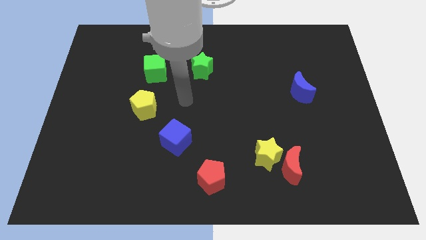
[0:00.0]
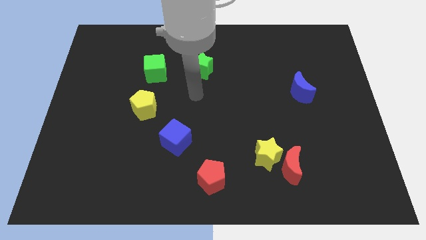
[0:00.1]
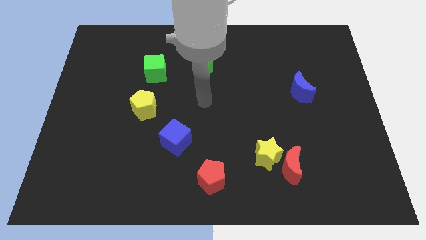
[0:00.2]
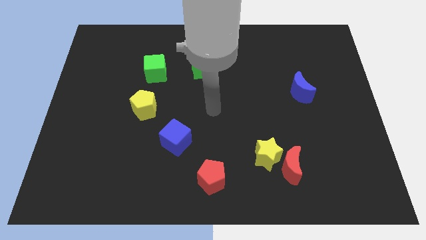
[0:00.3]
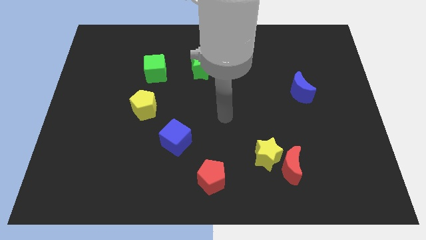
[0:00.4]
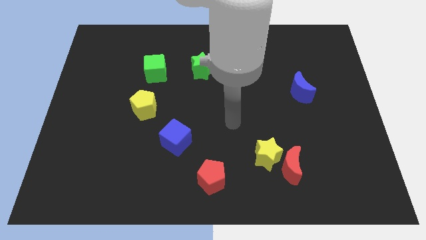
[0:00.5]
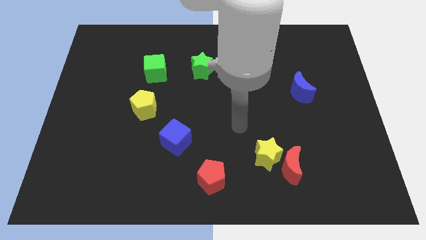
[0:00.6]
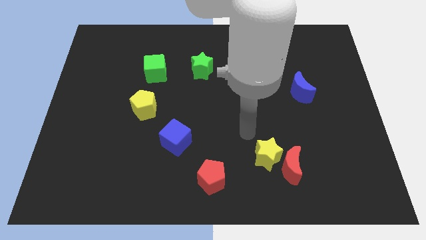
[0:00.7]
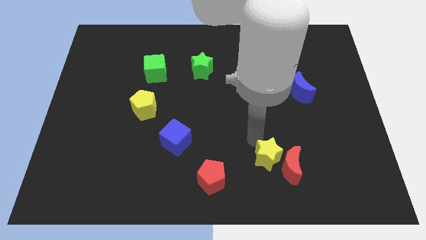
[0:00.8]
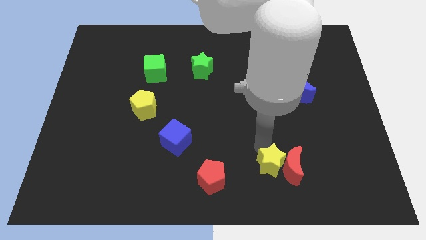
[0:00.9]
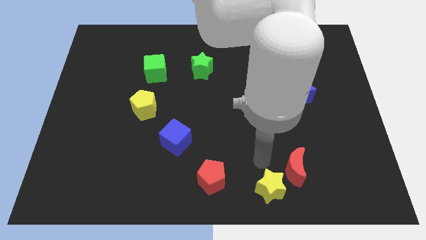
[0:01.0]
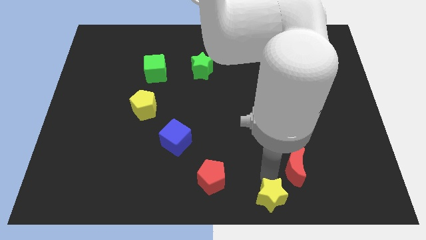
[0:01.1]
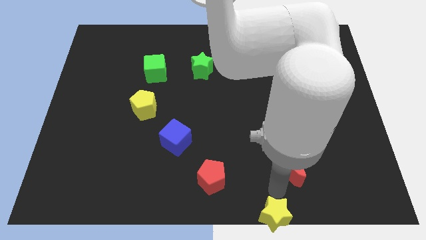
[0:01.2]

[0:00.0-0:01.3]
pull the red moon apart from the yellow star

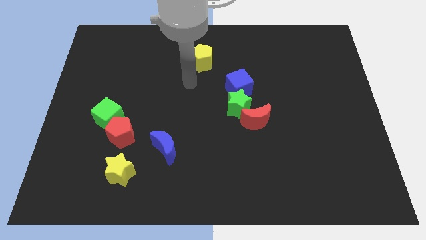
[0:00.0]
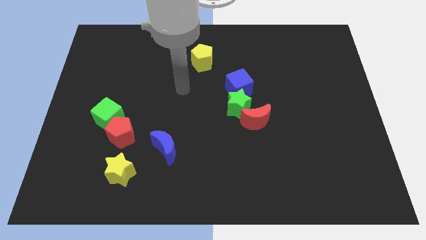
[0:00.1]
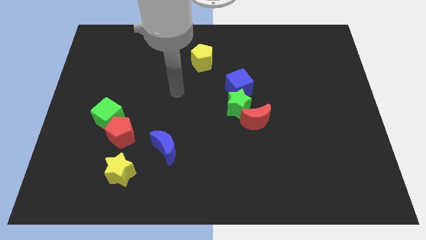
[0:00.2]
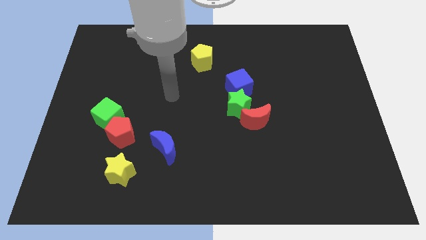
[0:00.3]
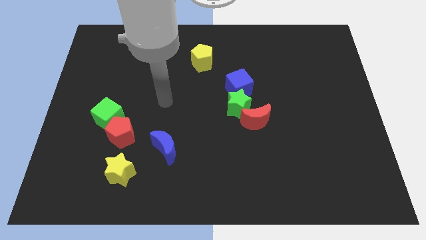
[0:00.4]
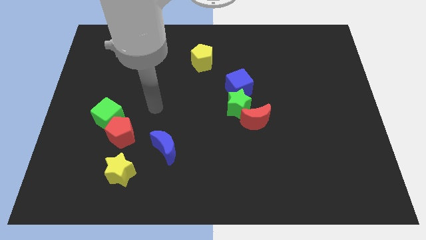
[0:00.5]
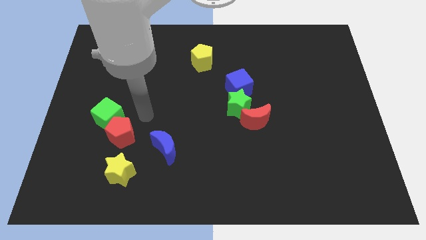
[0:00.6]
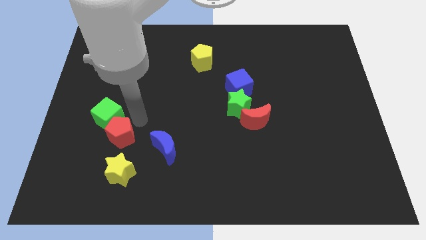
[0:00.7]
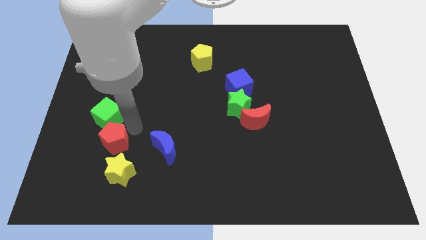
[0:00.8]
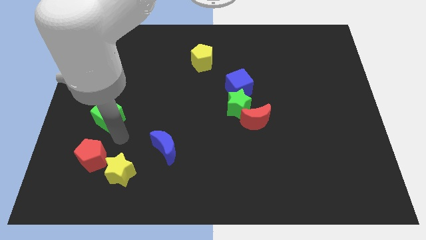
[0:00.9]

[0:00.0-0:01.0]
pull the green cube apart from the red pentagon

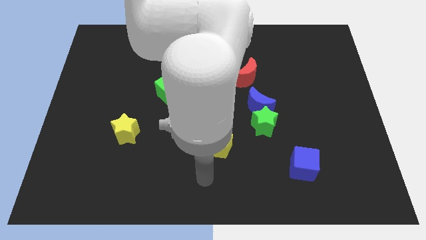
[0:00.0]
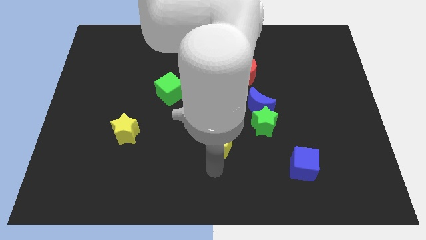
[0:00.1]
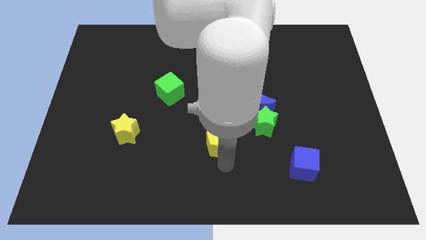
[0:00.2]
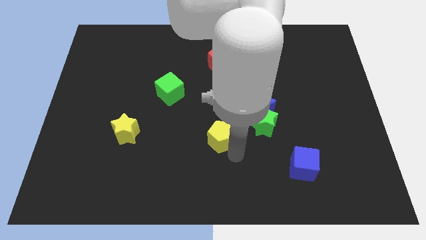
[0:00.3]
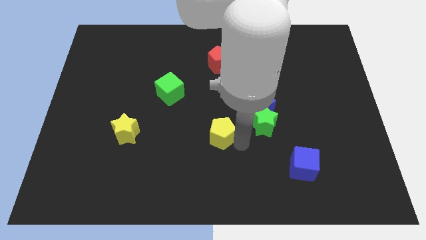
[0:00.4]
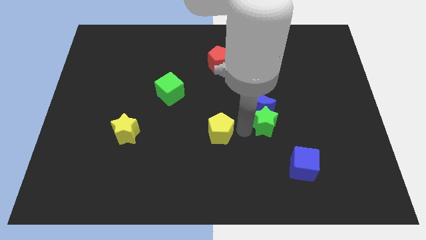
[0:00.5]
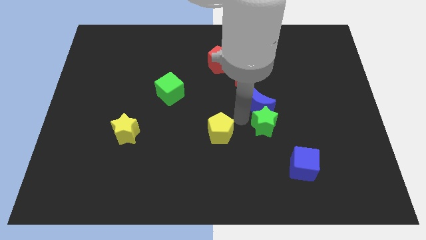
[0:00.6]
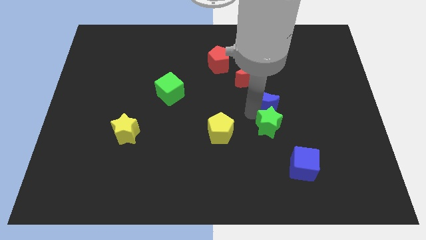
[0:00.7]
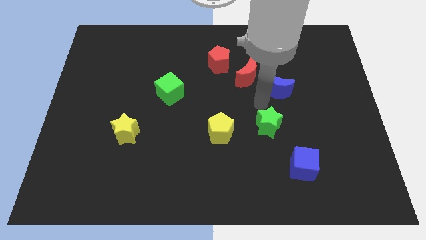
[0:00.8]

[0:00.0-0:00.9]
separate the green star from the blue moon

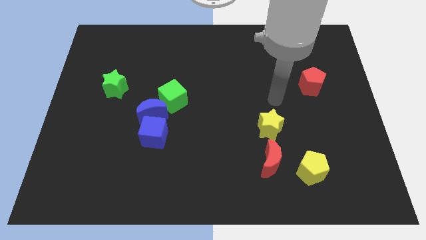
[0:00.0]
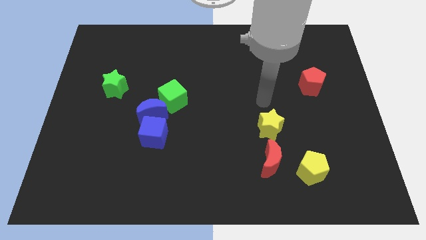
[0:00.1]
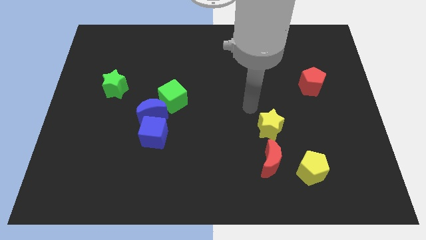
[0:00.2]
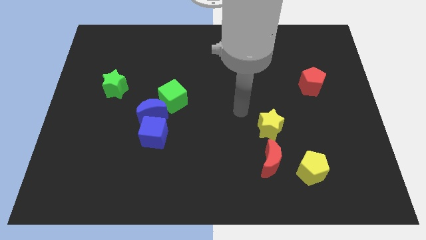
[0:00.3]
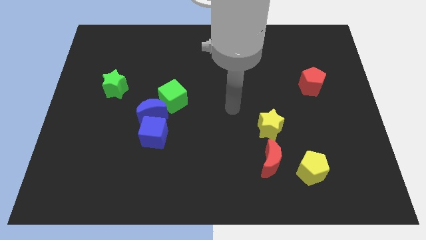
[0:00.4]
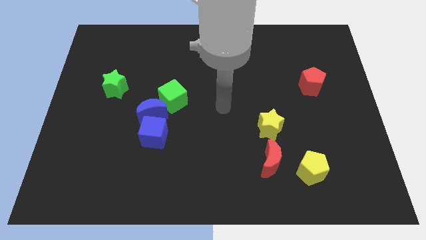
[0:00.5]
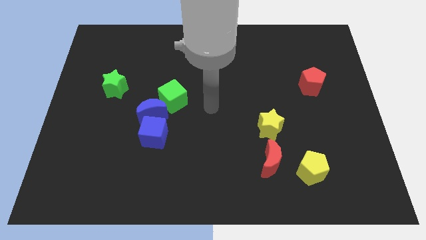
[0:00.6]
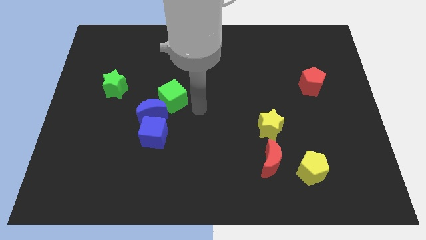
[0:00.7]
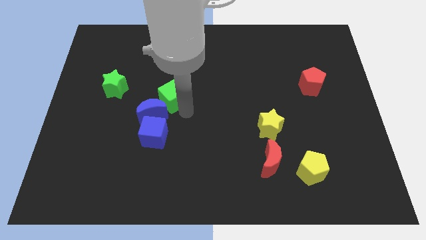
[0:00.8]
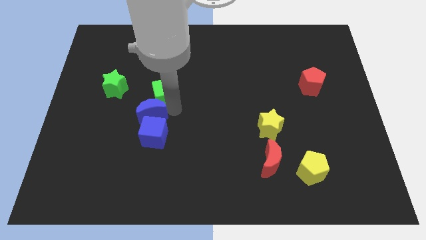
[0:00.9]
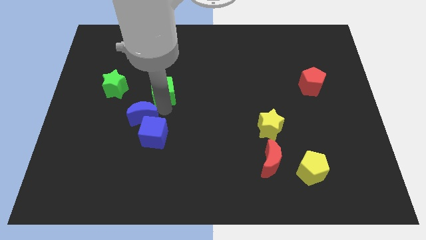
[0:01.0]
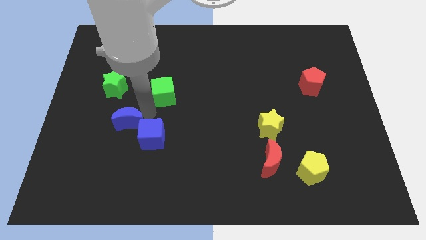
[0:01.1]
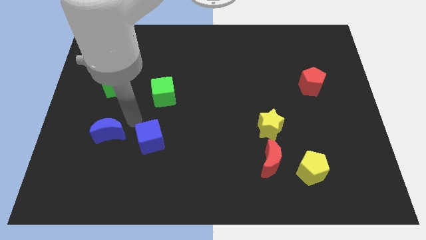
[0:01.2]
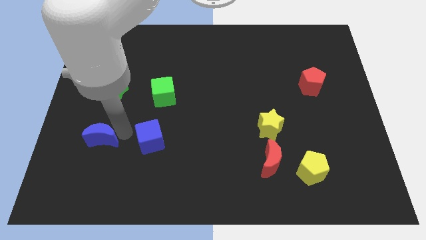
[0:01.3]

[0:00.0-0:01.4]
separate the blue cube from the blue moon

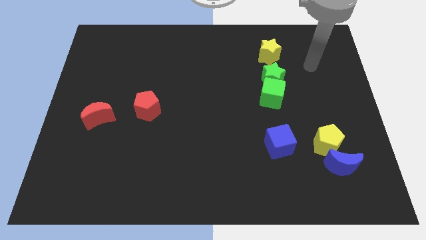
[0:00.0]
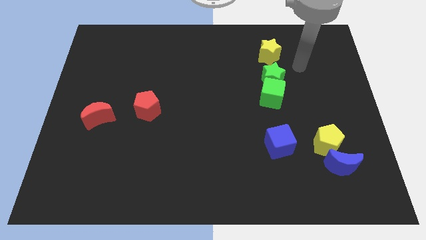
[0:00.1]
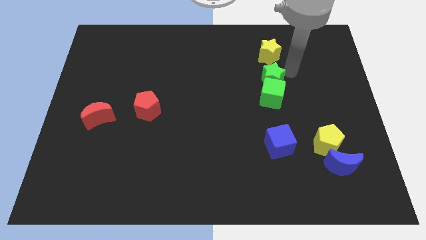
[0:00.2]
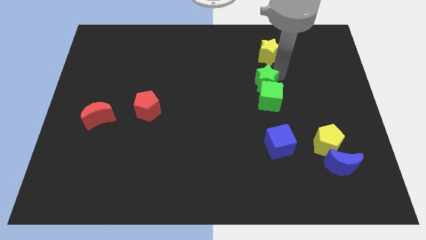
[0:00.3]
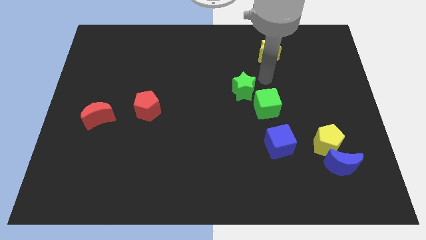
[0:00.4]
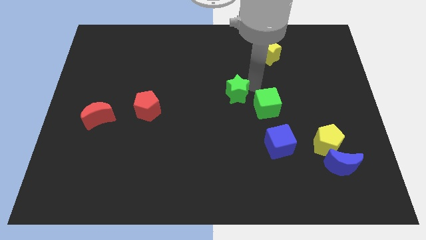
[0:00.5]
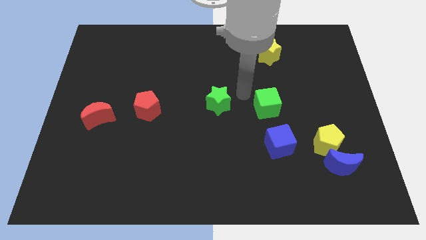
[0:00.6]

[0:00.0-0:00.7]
separate the green cube from the green star

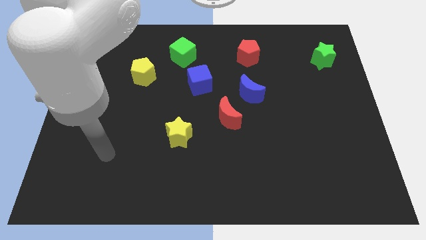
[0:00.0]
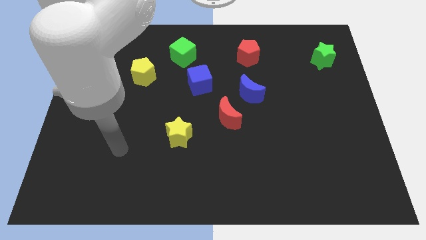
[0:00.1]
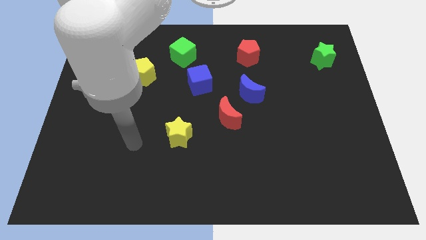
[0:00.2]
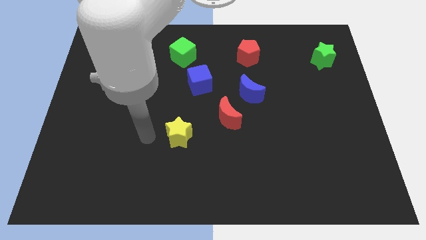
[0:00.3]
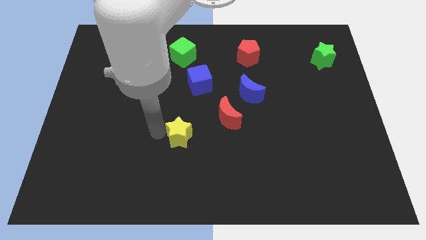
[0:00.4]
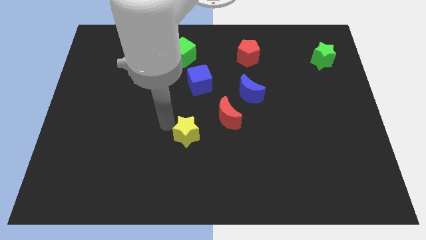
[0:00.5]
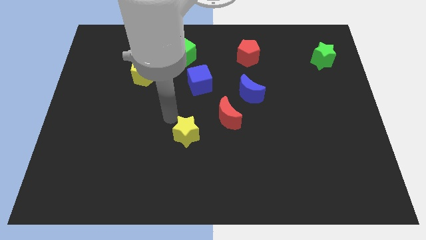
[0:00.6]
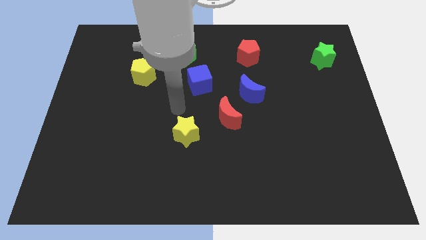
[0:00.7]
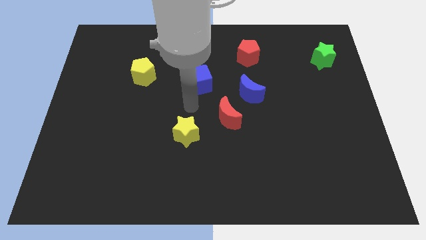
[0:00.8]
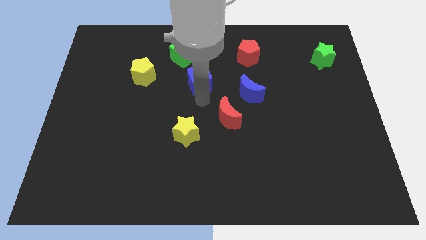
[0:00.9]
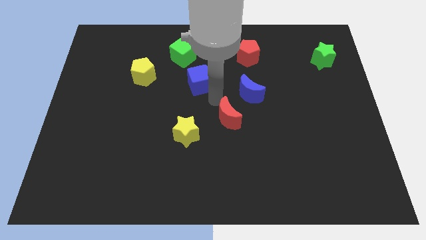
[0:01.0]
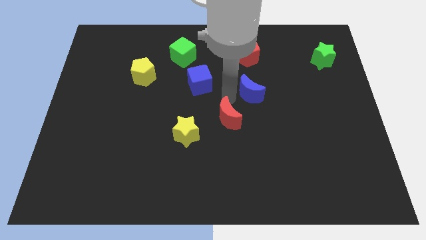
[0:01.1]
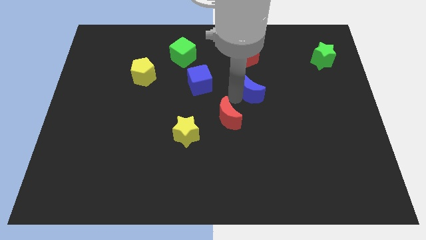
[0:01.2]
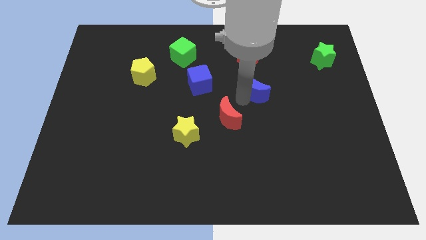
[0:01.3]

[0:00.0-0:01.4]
separate the red moon from the blue moon

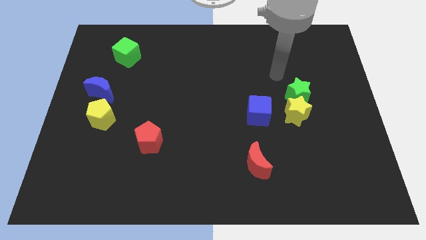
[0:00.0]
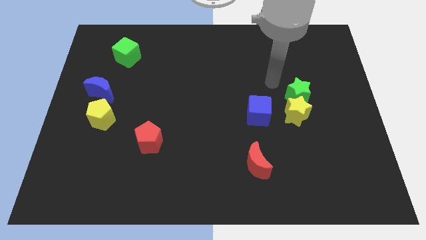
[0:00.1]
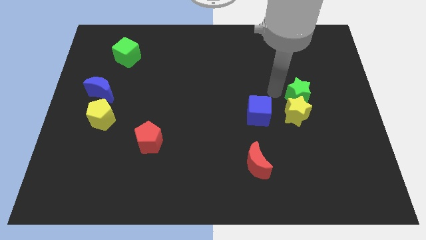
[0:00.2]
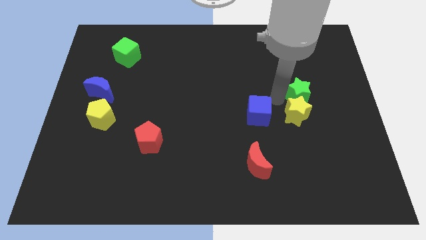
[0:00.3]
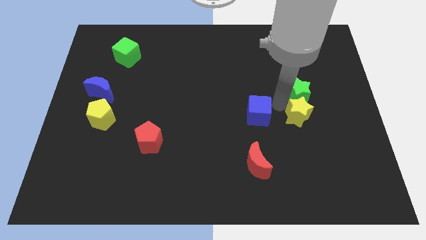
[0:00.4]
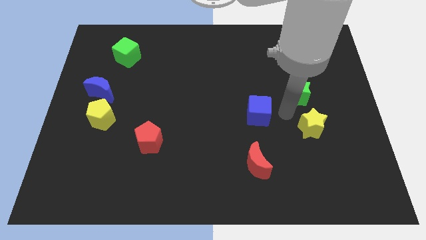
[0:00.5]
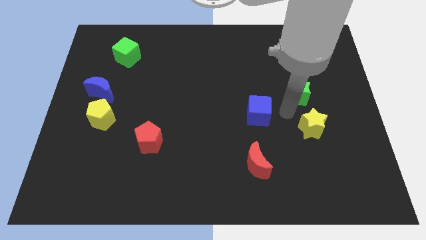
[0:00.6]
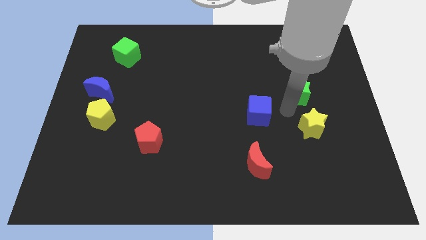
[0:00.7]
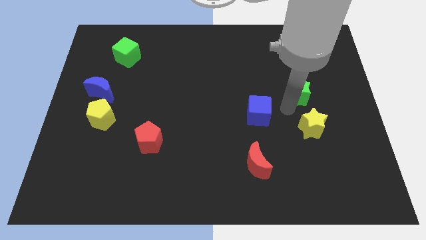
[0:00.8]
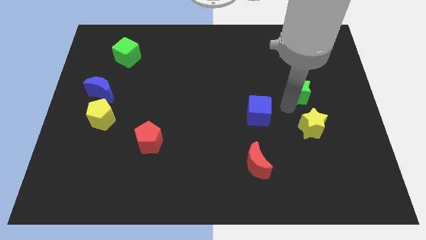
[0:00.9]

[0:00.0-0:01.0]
move the green star away from the yellow star

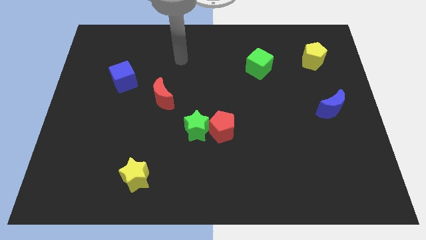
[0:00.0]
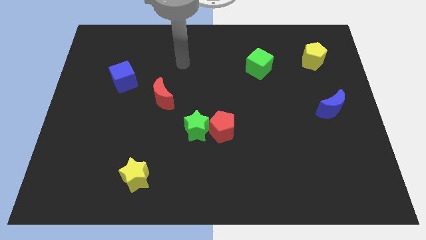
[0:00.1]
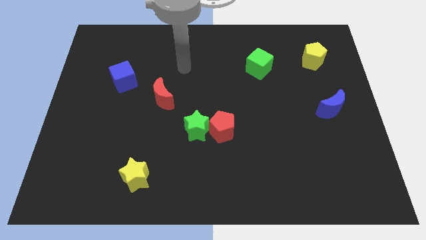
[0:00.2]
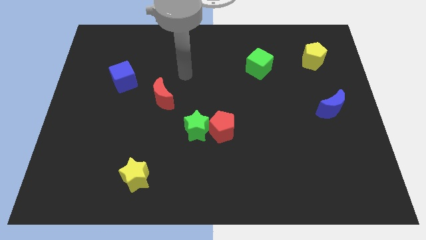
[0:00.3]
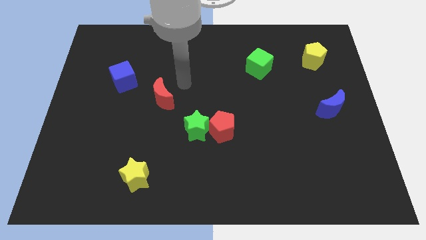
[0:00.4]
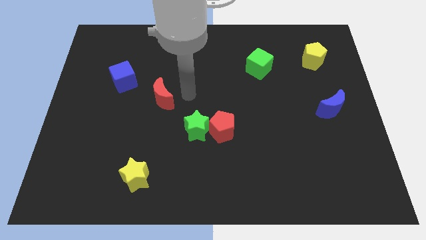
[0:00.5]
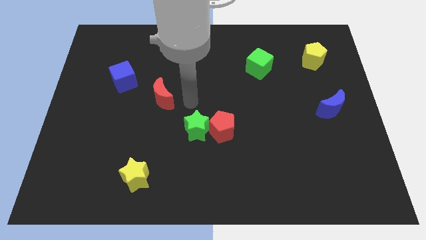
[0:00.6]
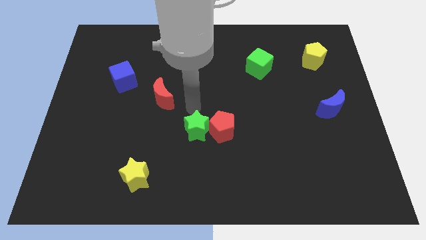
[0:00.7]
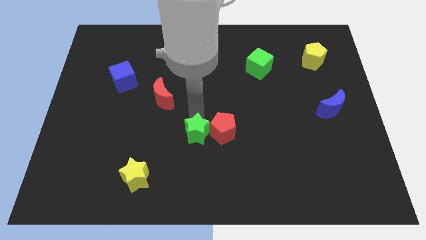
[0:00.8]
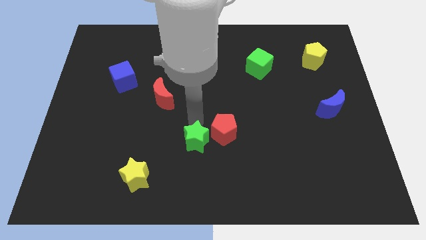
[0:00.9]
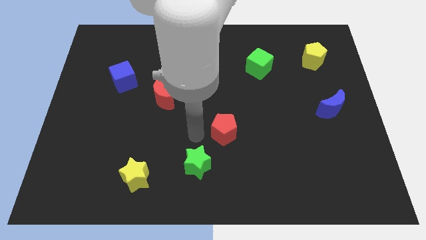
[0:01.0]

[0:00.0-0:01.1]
pull the red pentagon apart from the green star

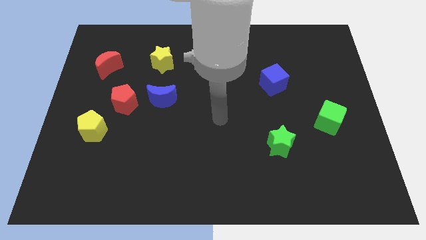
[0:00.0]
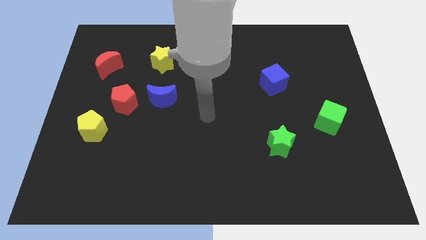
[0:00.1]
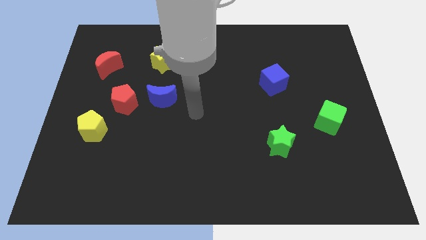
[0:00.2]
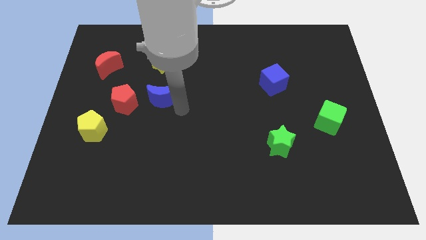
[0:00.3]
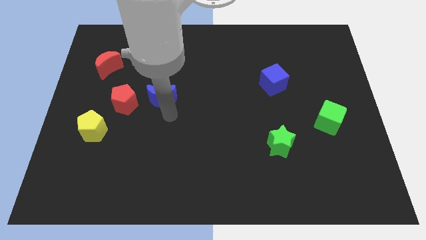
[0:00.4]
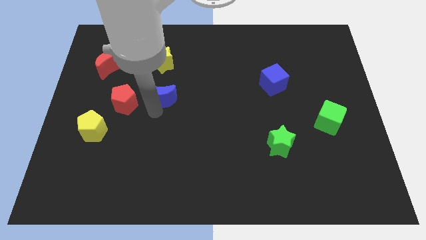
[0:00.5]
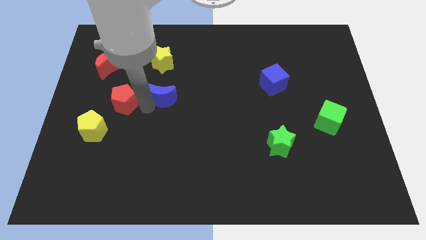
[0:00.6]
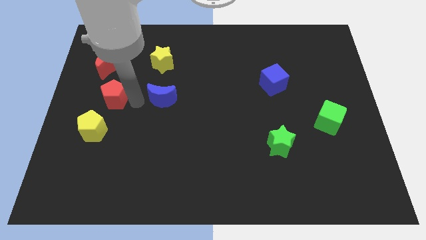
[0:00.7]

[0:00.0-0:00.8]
separate the blue moon from the red pentagon
